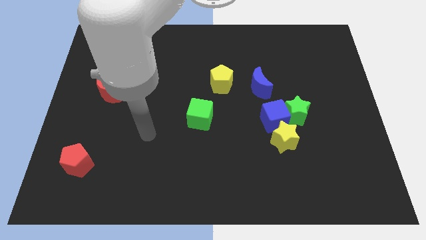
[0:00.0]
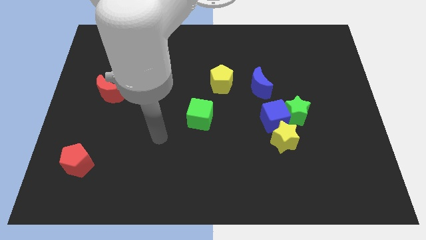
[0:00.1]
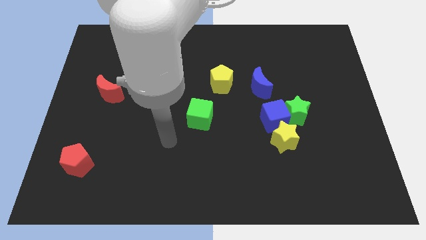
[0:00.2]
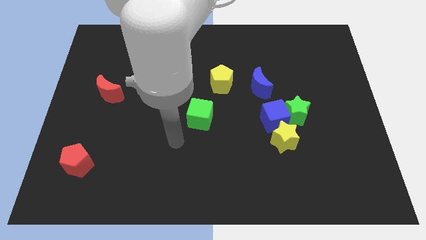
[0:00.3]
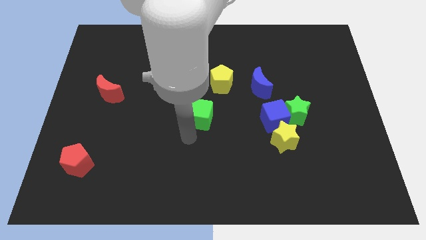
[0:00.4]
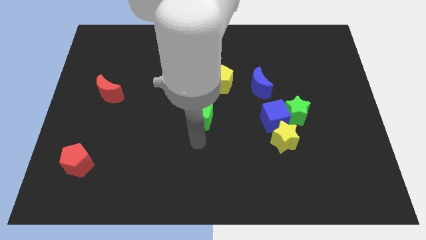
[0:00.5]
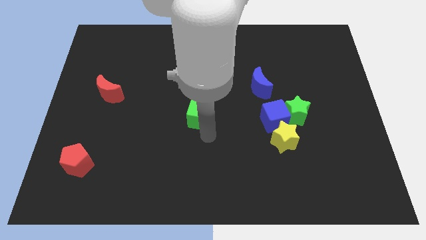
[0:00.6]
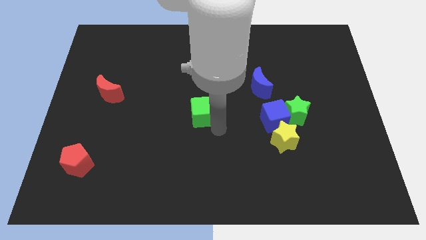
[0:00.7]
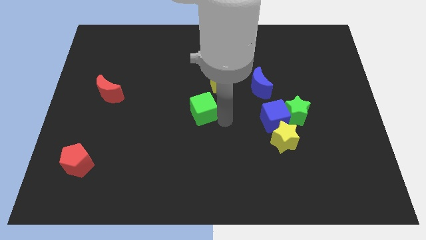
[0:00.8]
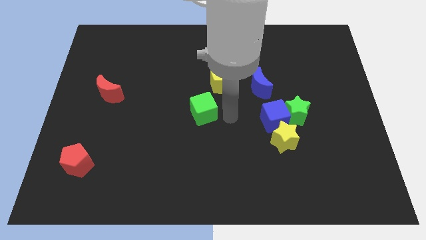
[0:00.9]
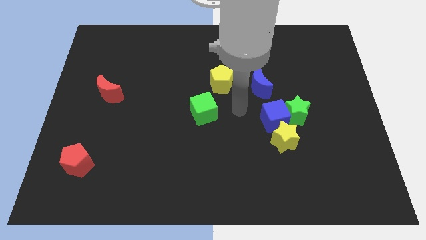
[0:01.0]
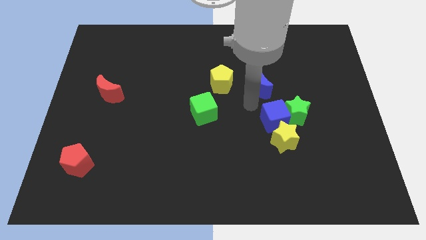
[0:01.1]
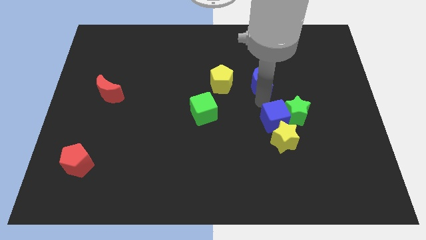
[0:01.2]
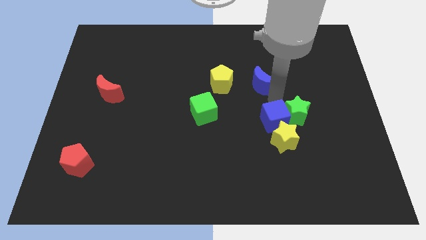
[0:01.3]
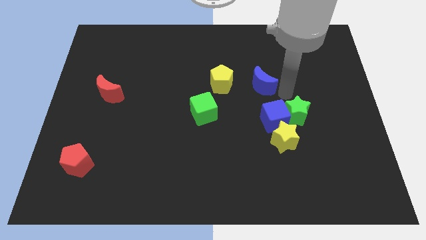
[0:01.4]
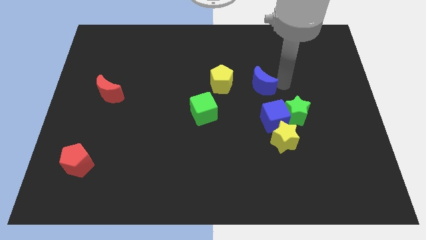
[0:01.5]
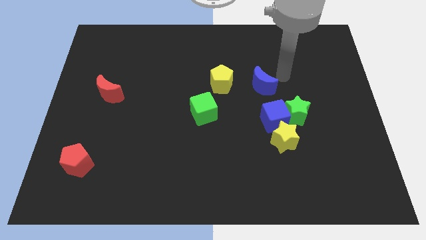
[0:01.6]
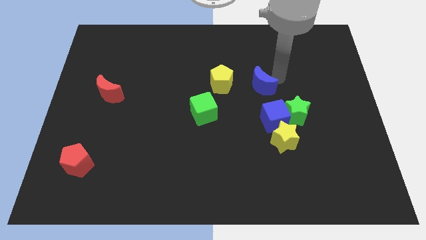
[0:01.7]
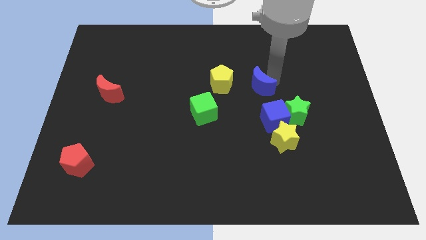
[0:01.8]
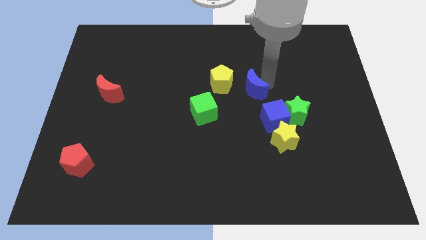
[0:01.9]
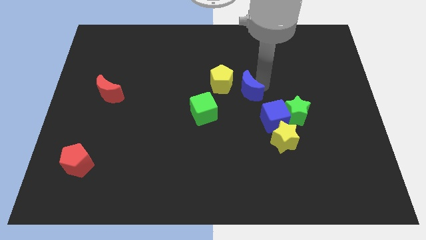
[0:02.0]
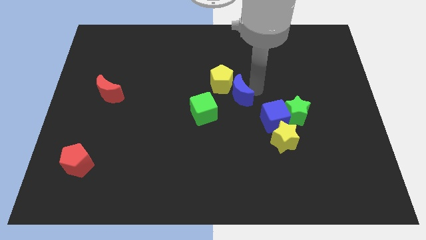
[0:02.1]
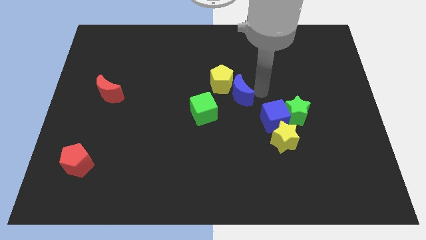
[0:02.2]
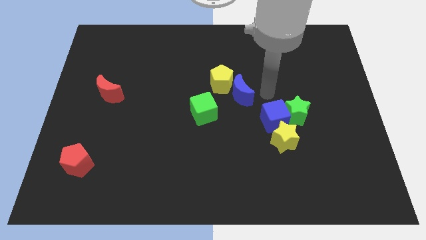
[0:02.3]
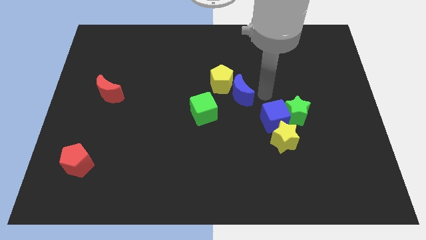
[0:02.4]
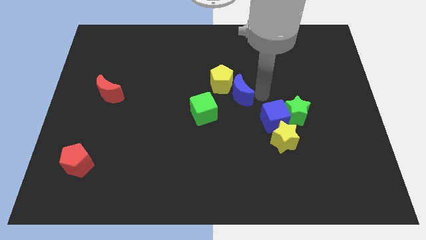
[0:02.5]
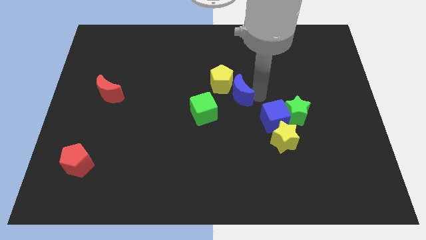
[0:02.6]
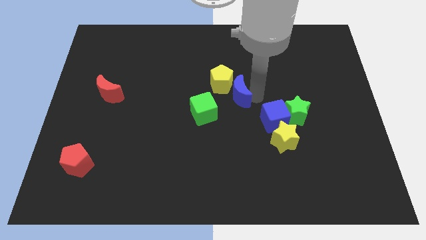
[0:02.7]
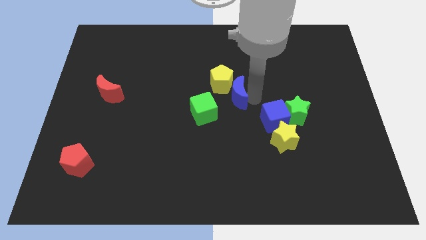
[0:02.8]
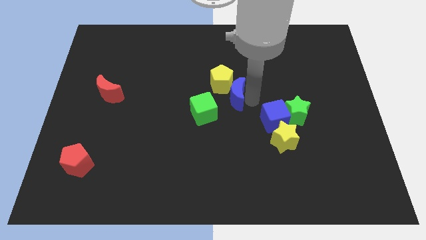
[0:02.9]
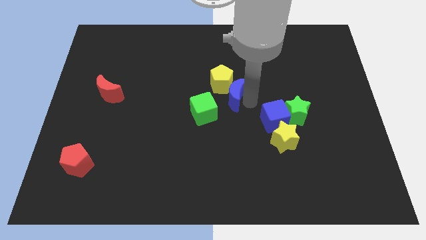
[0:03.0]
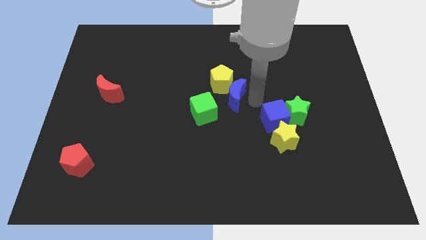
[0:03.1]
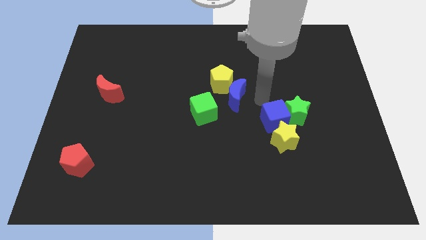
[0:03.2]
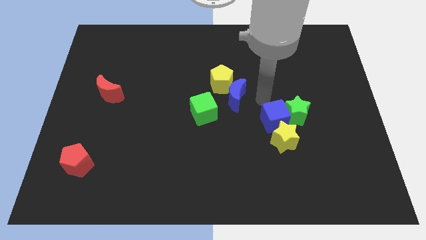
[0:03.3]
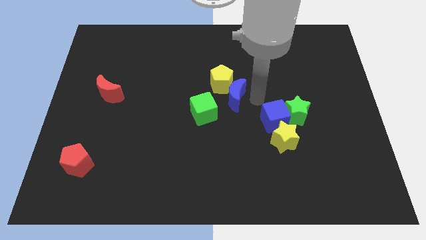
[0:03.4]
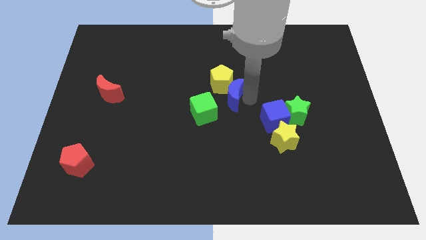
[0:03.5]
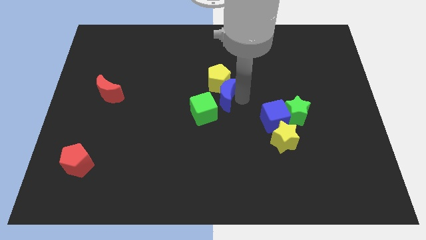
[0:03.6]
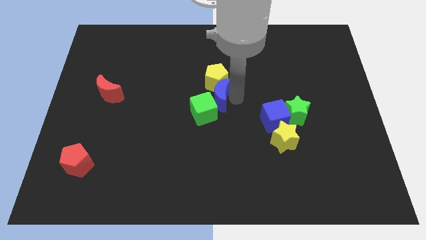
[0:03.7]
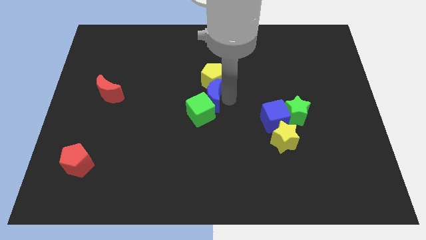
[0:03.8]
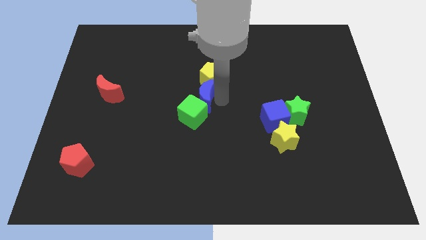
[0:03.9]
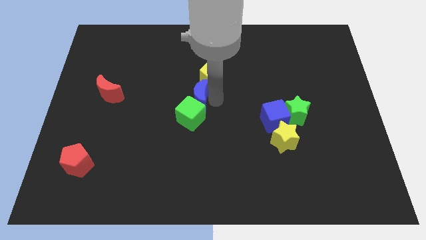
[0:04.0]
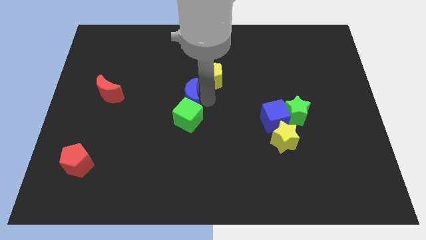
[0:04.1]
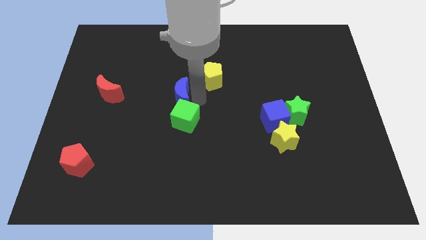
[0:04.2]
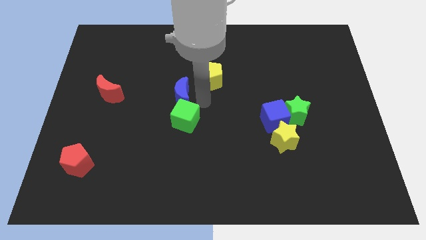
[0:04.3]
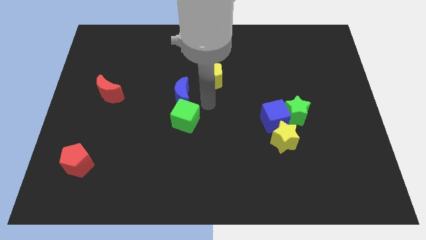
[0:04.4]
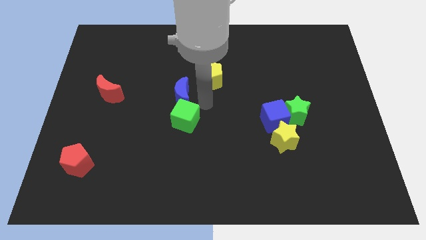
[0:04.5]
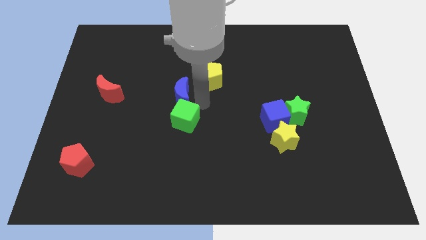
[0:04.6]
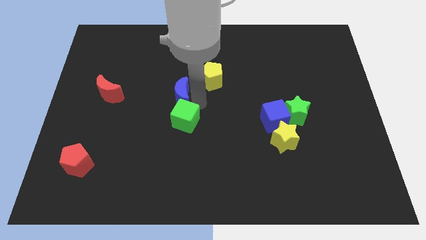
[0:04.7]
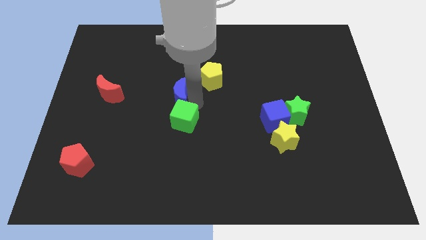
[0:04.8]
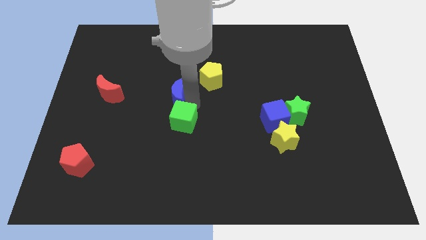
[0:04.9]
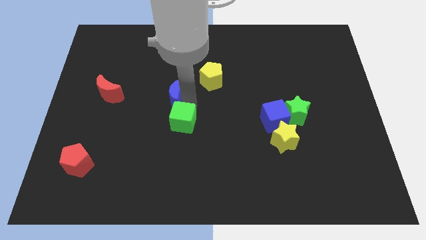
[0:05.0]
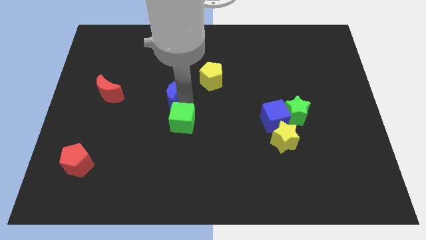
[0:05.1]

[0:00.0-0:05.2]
push the blue moon to the left

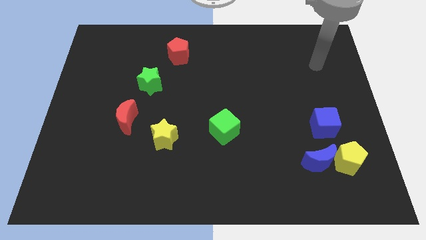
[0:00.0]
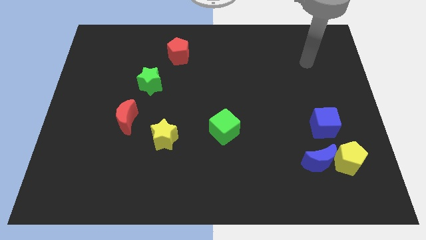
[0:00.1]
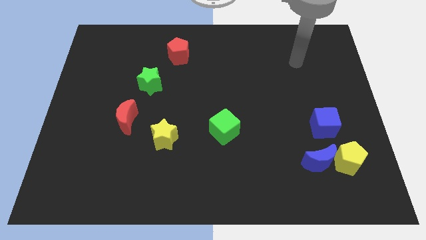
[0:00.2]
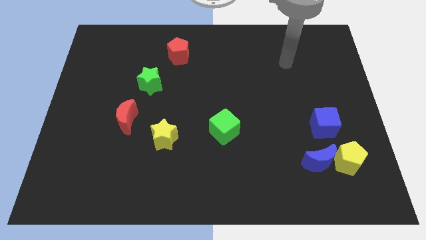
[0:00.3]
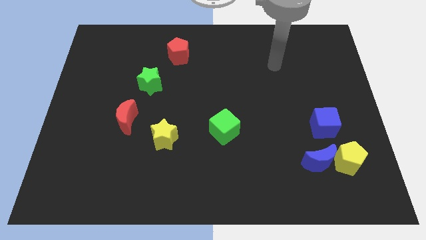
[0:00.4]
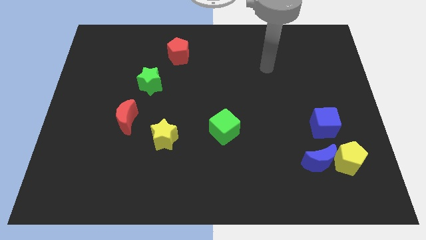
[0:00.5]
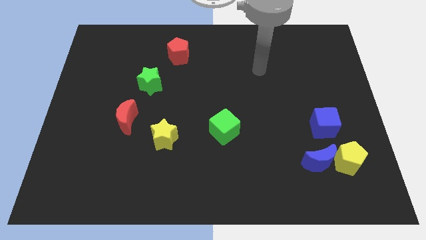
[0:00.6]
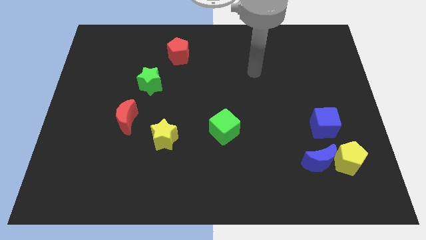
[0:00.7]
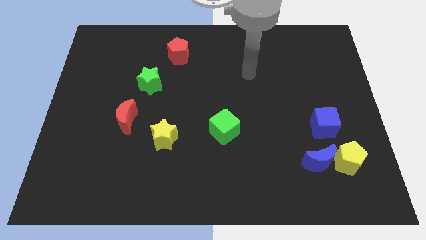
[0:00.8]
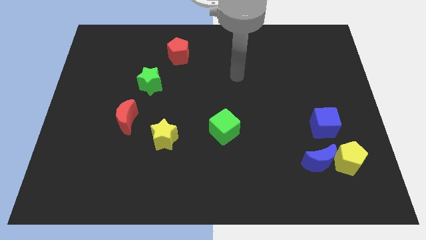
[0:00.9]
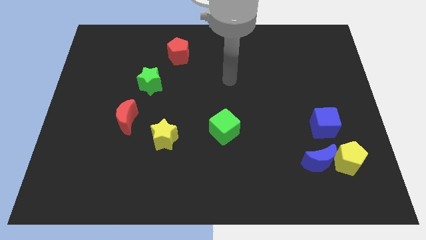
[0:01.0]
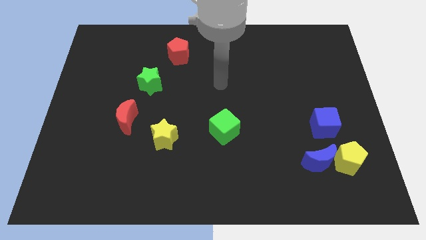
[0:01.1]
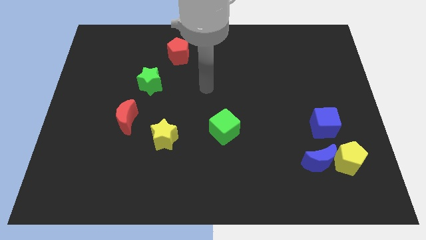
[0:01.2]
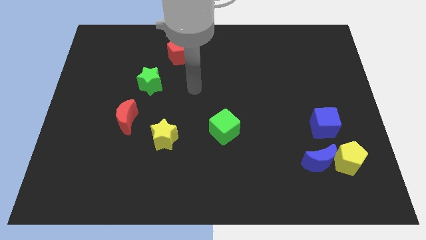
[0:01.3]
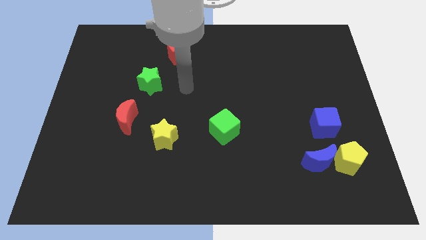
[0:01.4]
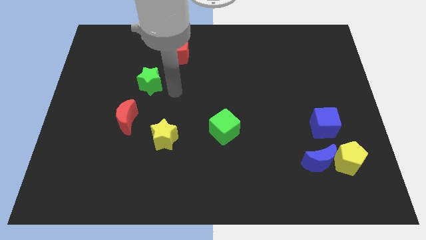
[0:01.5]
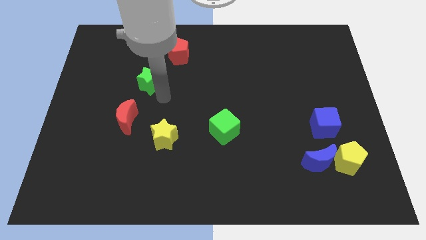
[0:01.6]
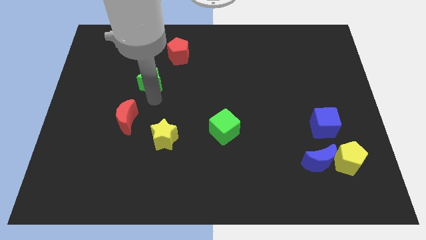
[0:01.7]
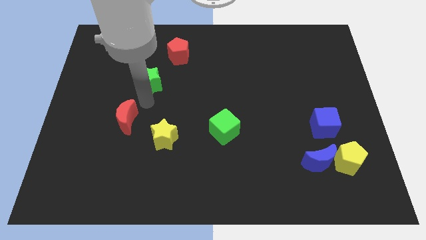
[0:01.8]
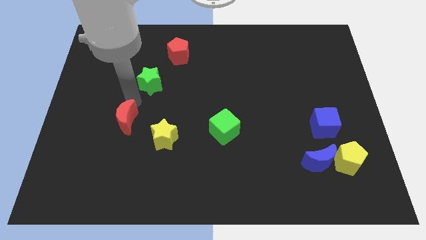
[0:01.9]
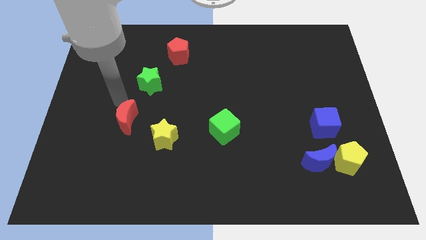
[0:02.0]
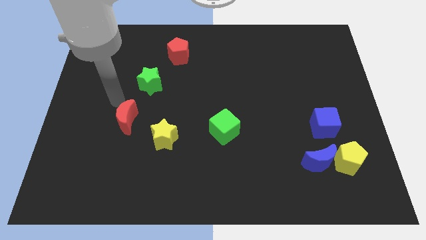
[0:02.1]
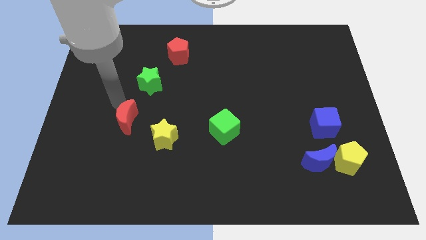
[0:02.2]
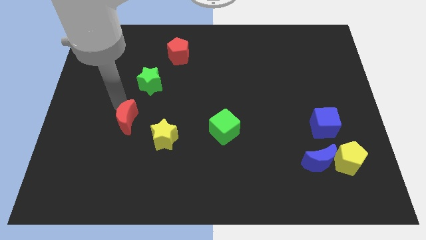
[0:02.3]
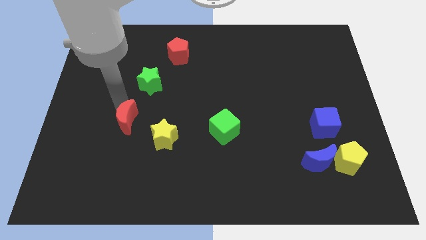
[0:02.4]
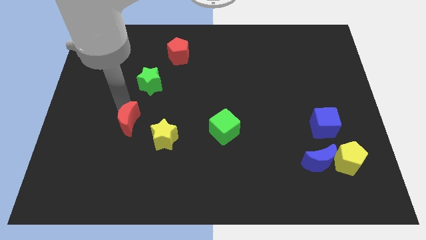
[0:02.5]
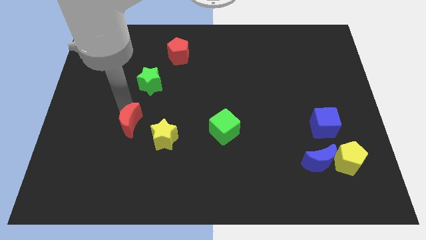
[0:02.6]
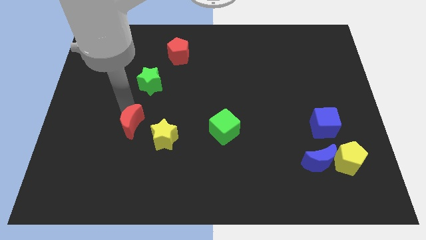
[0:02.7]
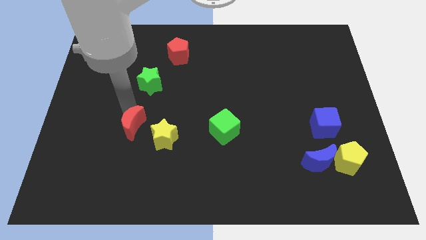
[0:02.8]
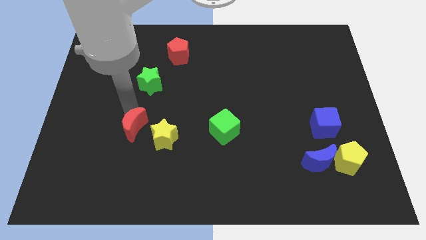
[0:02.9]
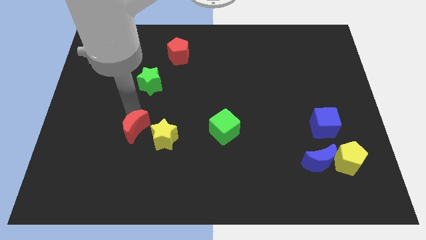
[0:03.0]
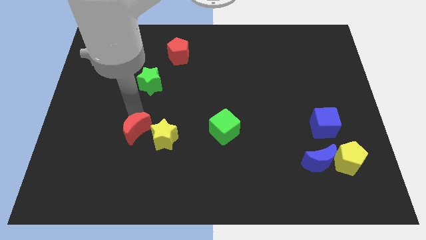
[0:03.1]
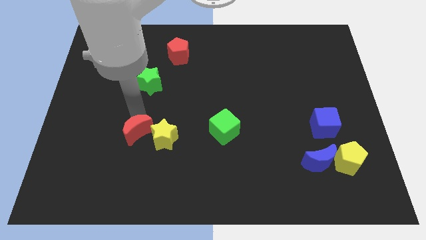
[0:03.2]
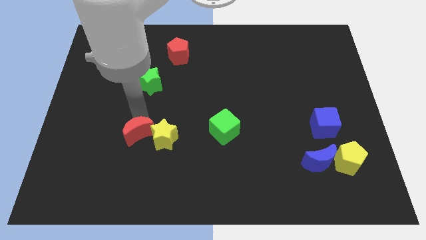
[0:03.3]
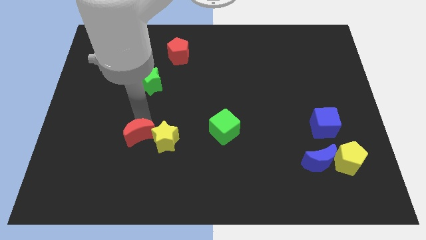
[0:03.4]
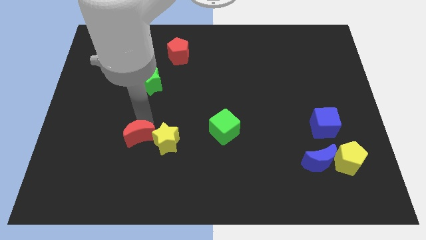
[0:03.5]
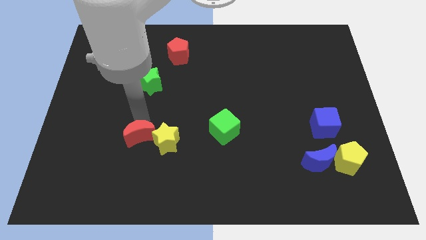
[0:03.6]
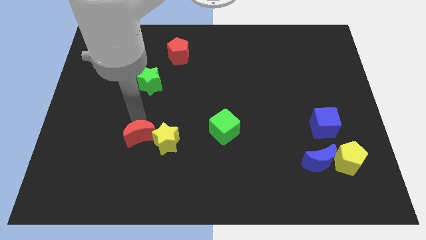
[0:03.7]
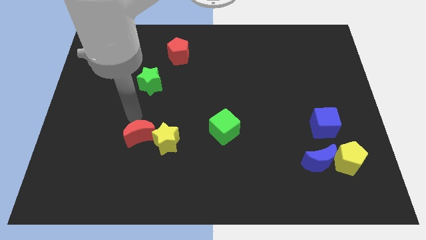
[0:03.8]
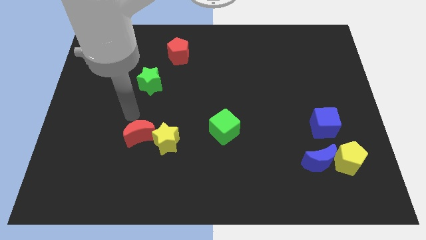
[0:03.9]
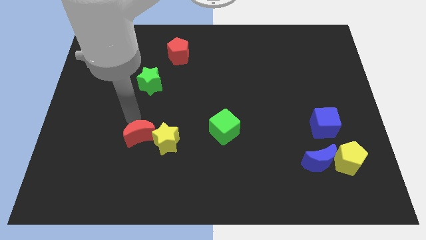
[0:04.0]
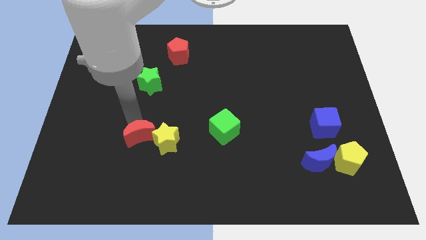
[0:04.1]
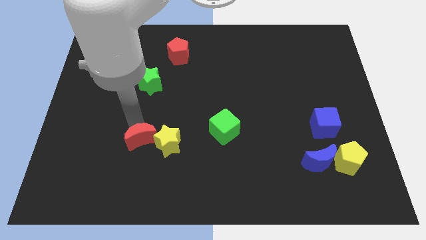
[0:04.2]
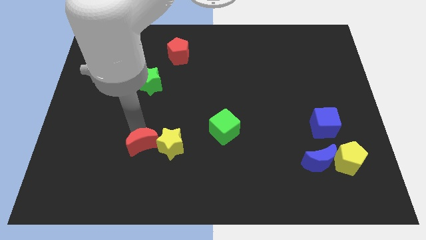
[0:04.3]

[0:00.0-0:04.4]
slightly slide the red moon down and to the right diagonally
